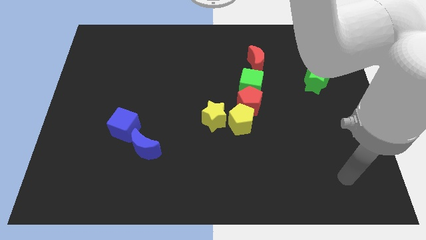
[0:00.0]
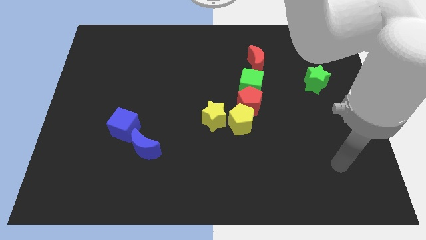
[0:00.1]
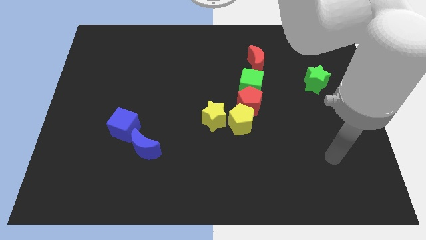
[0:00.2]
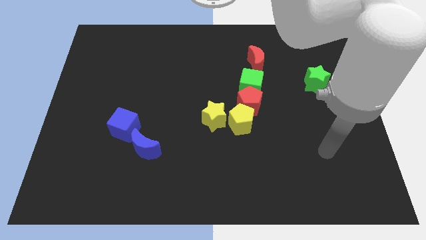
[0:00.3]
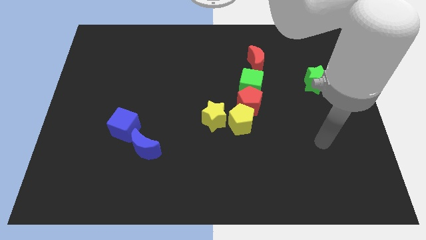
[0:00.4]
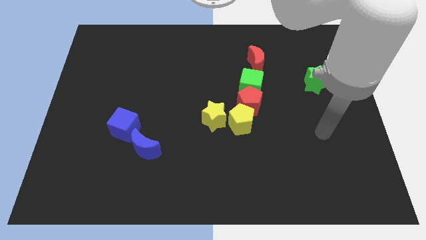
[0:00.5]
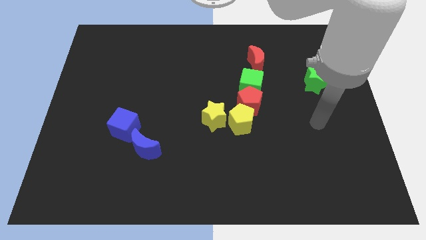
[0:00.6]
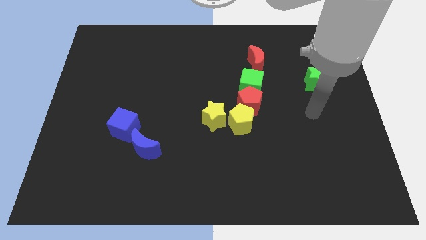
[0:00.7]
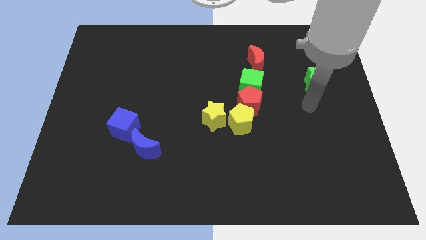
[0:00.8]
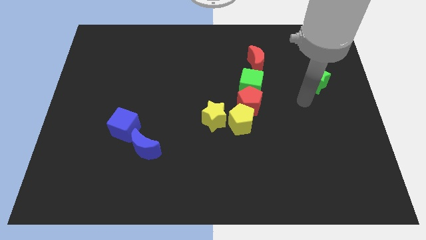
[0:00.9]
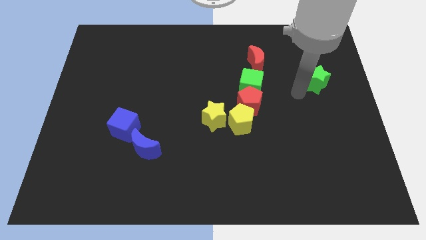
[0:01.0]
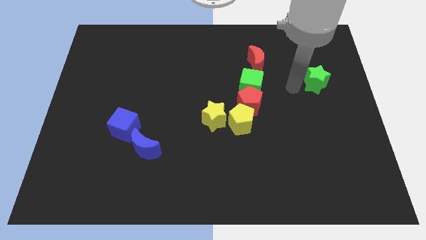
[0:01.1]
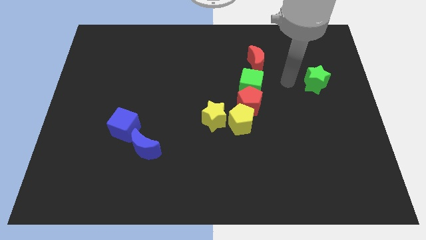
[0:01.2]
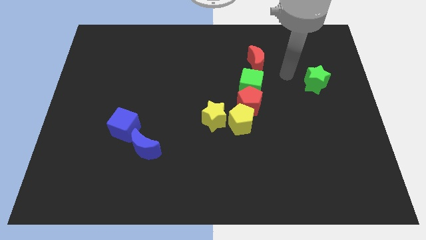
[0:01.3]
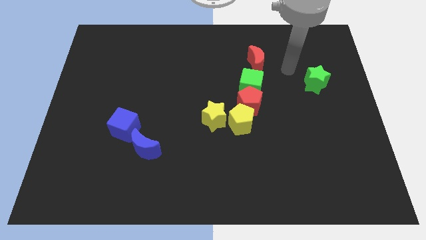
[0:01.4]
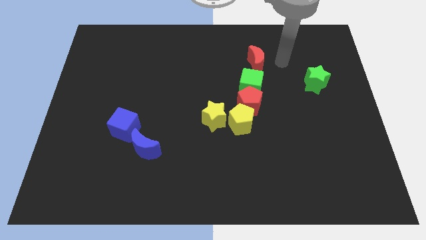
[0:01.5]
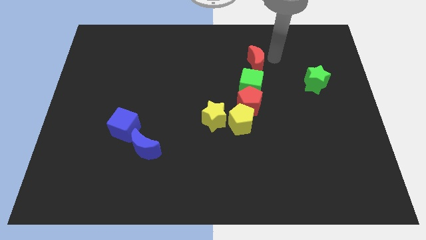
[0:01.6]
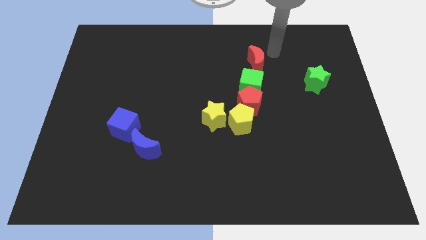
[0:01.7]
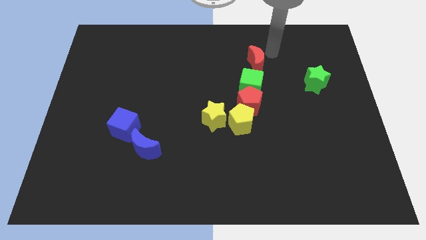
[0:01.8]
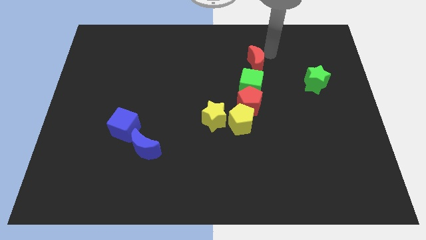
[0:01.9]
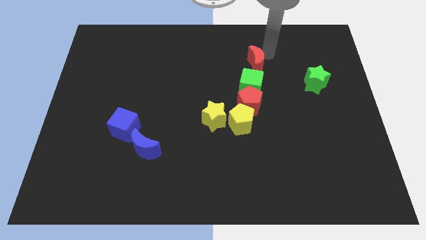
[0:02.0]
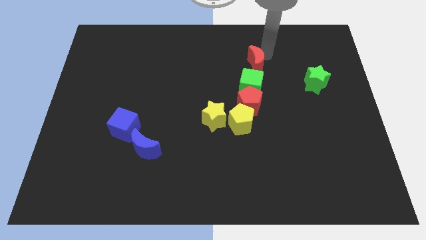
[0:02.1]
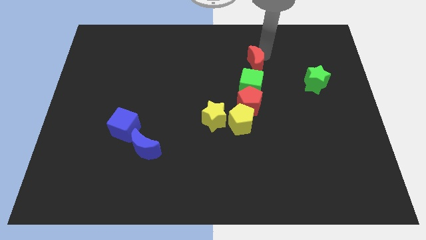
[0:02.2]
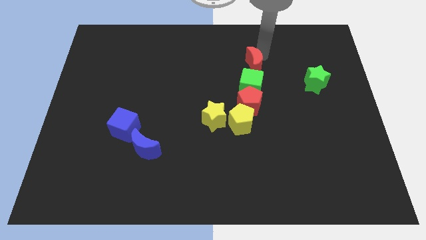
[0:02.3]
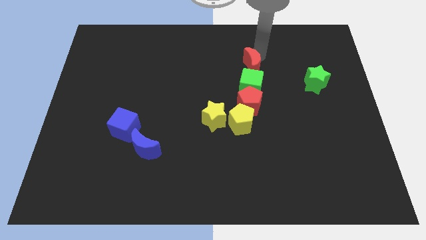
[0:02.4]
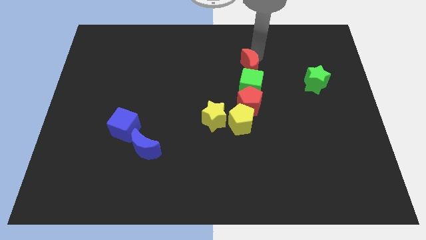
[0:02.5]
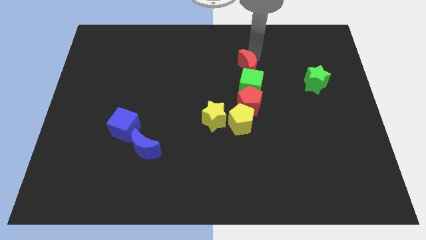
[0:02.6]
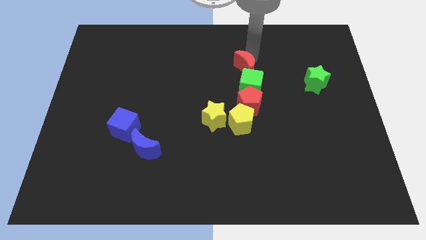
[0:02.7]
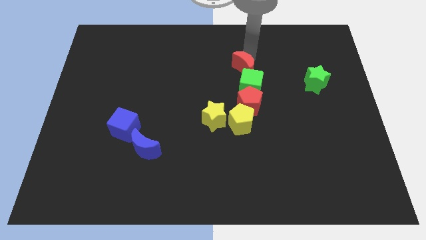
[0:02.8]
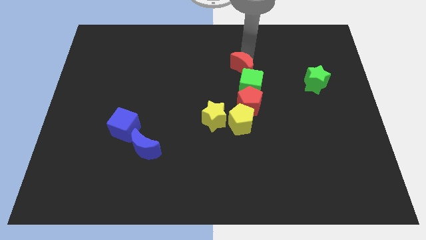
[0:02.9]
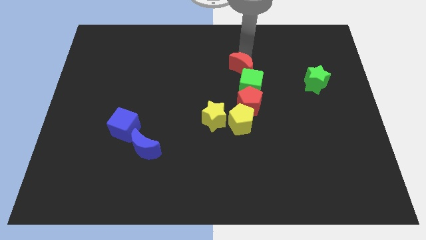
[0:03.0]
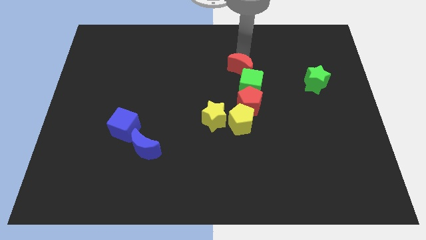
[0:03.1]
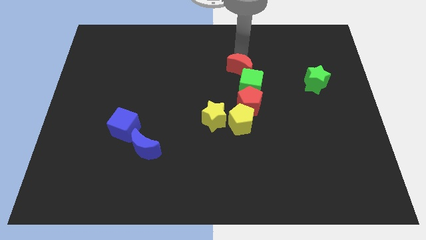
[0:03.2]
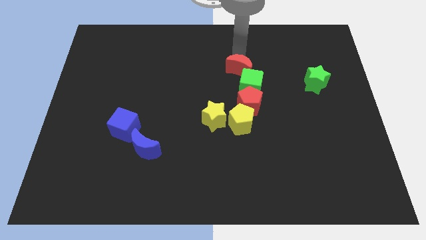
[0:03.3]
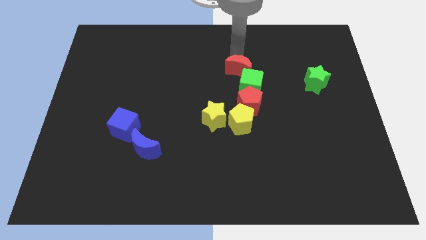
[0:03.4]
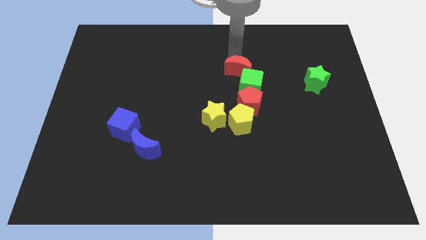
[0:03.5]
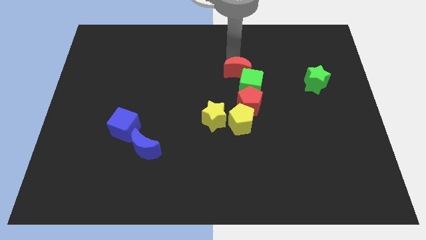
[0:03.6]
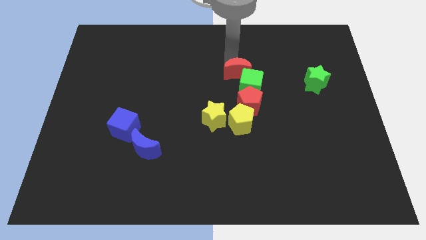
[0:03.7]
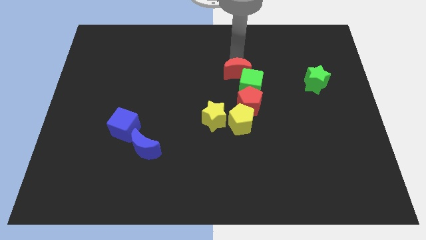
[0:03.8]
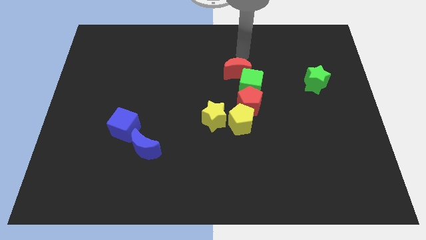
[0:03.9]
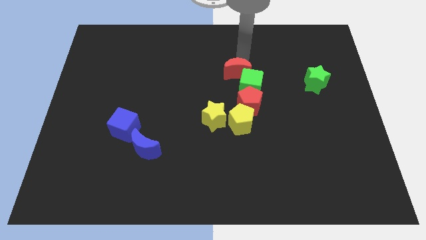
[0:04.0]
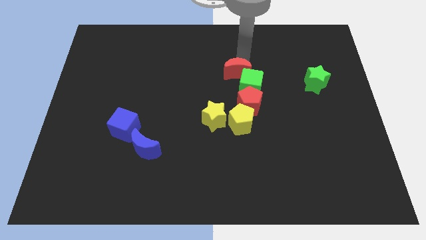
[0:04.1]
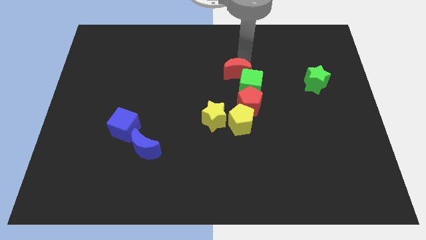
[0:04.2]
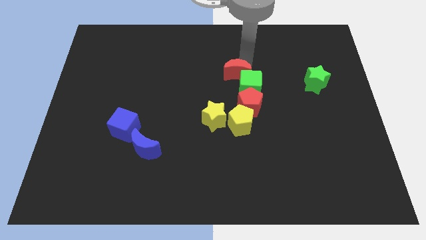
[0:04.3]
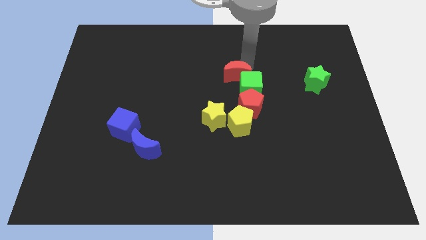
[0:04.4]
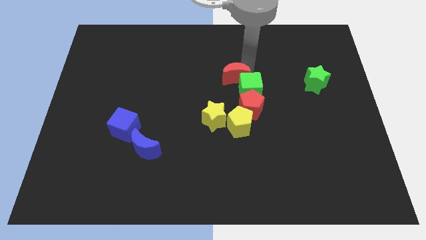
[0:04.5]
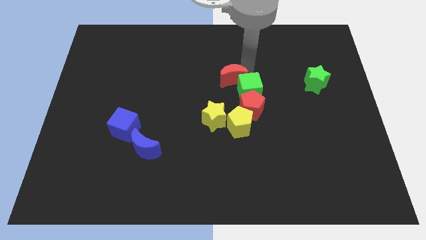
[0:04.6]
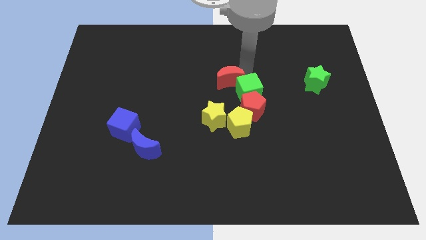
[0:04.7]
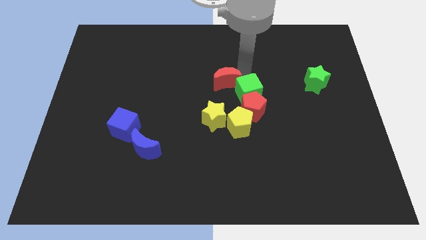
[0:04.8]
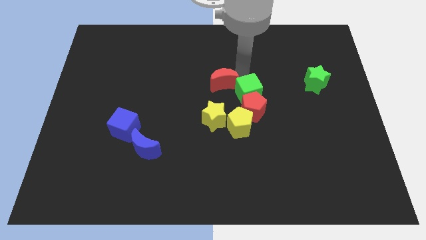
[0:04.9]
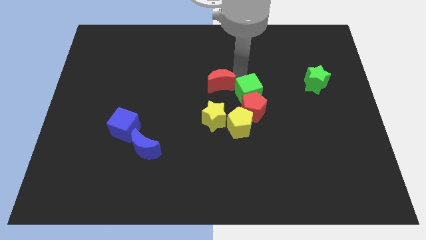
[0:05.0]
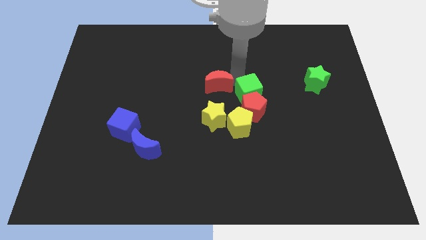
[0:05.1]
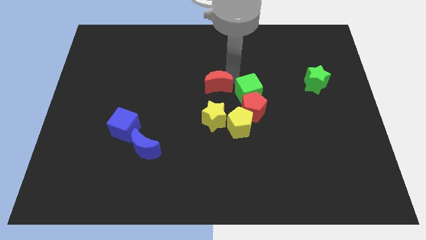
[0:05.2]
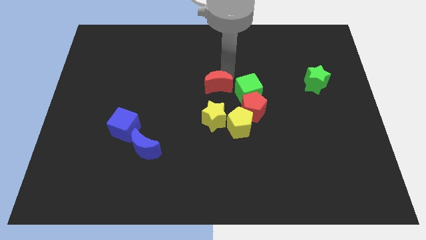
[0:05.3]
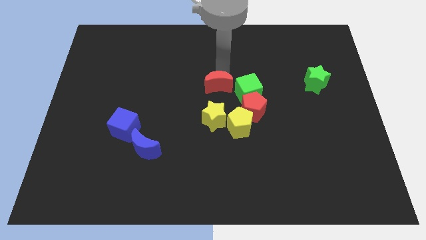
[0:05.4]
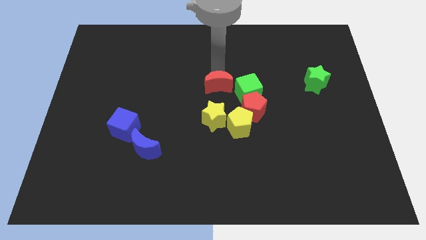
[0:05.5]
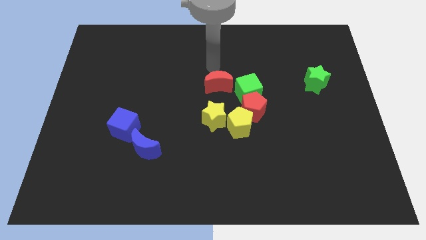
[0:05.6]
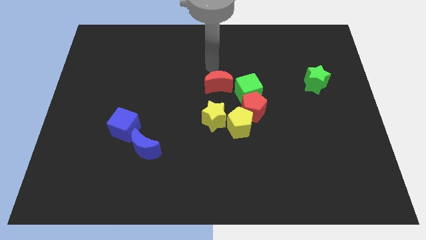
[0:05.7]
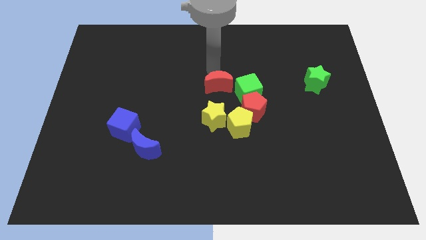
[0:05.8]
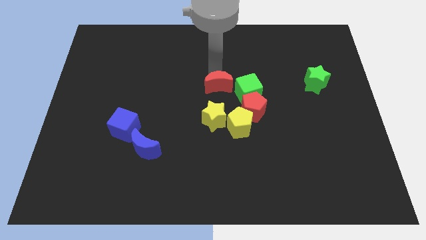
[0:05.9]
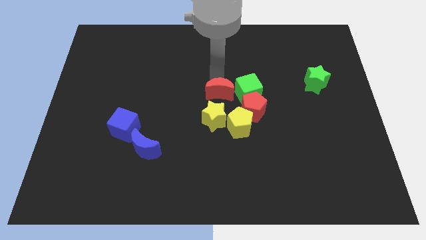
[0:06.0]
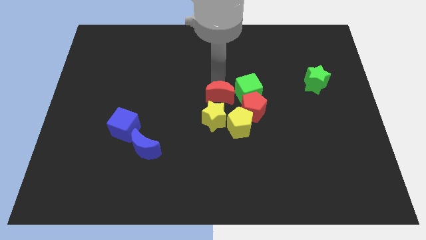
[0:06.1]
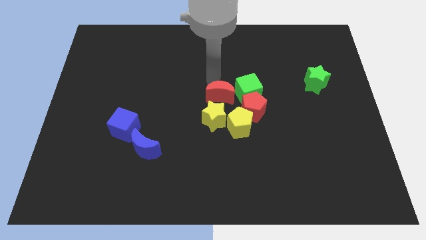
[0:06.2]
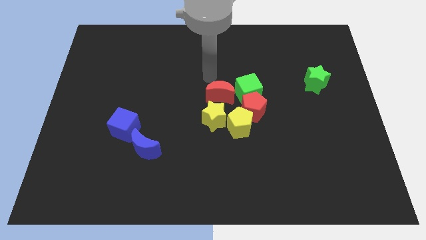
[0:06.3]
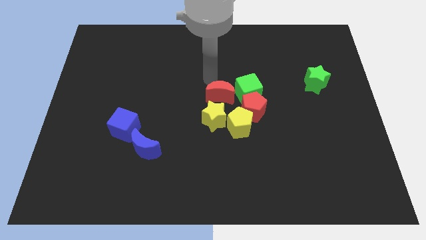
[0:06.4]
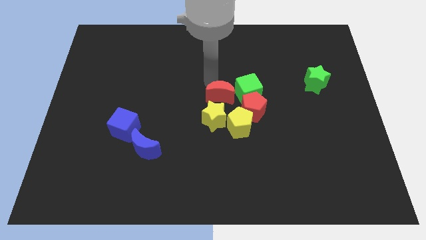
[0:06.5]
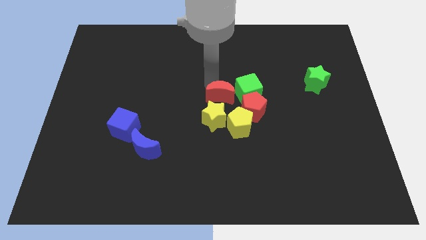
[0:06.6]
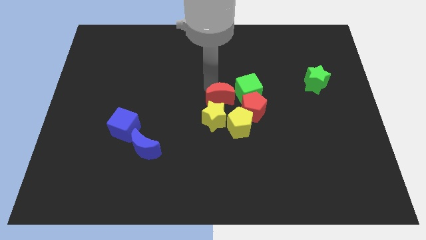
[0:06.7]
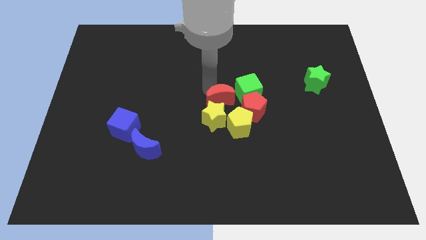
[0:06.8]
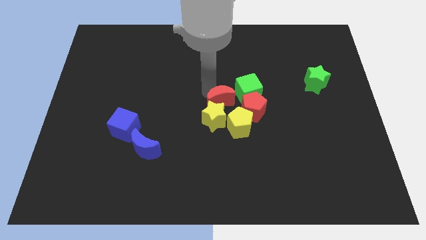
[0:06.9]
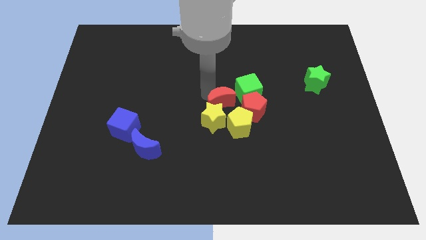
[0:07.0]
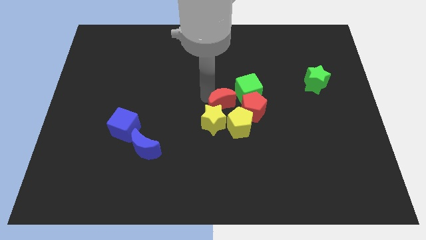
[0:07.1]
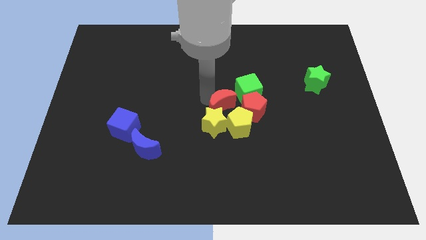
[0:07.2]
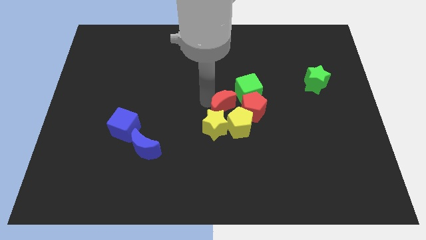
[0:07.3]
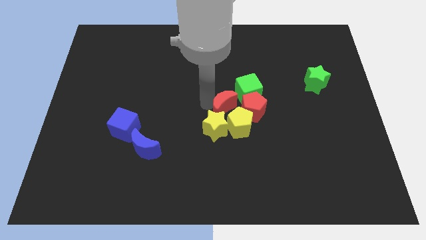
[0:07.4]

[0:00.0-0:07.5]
put the red moon towards the yellow pentagon
